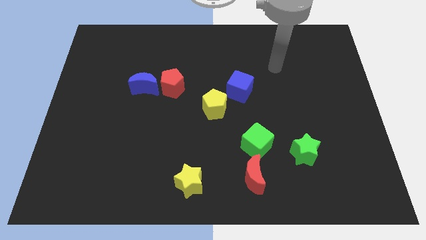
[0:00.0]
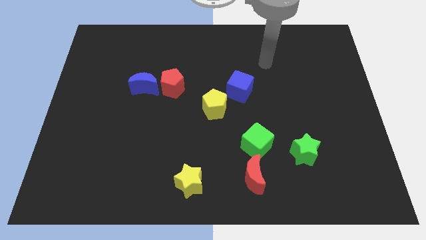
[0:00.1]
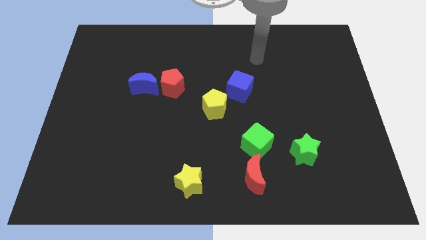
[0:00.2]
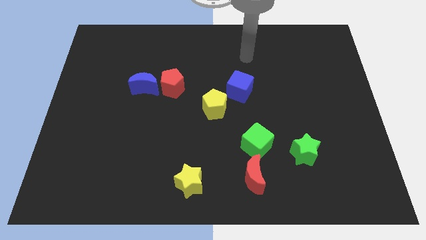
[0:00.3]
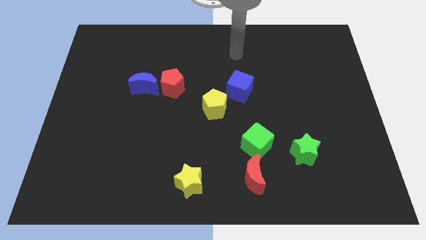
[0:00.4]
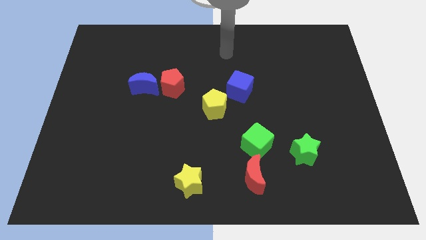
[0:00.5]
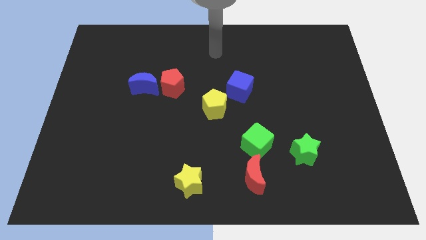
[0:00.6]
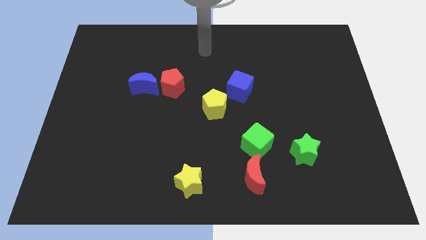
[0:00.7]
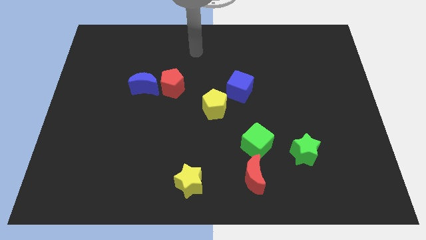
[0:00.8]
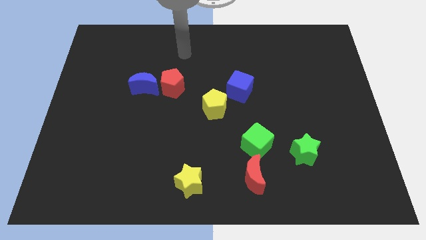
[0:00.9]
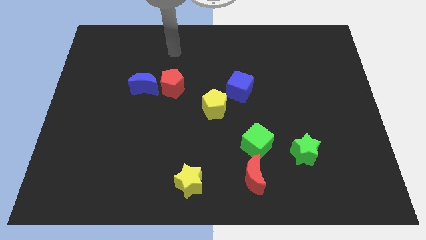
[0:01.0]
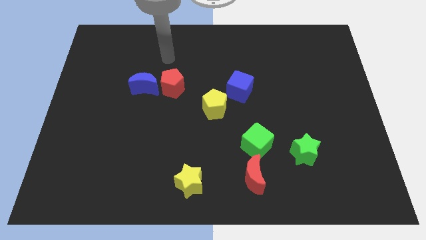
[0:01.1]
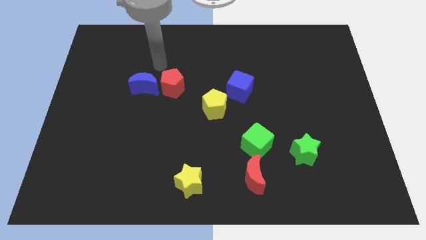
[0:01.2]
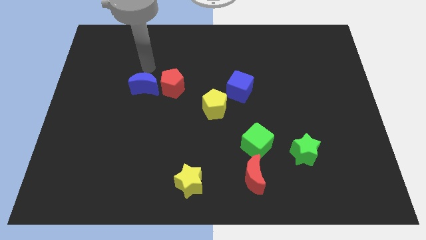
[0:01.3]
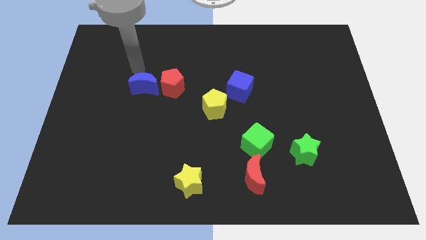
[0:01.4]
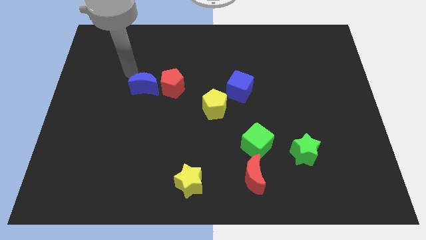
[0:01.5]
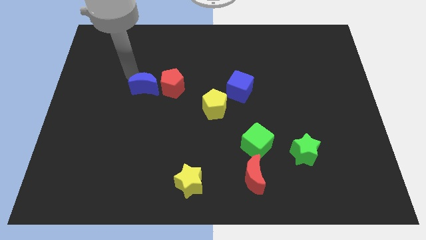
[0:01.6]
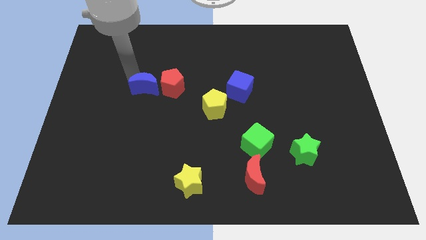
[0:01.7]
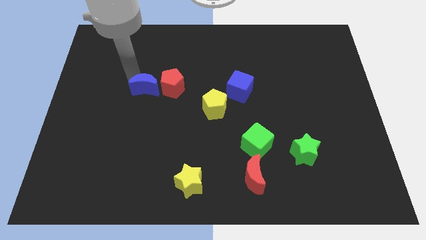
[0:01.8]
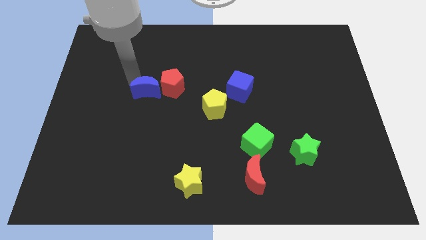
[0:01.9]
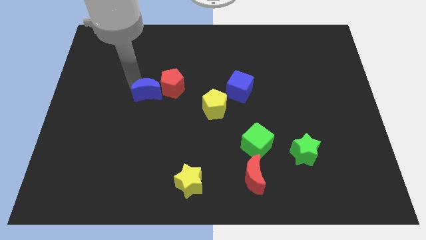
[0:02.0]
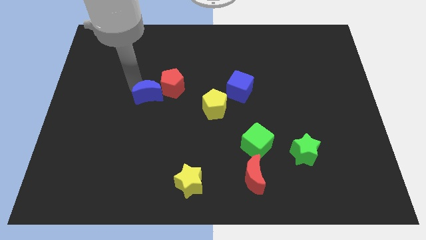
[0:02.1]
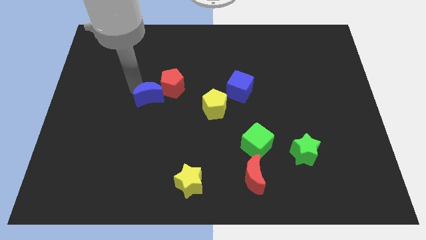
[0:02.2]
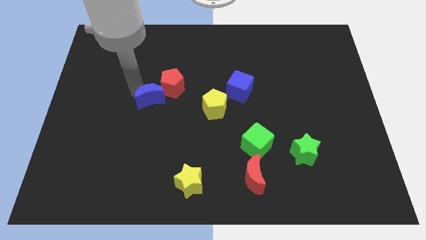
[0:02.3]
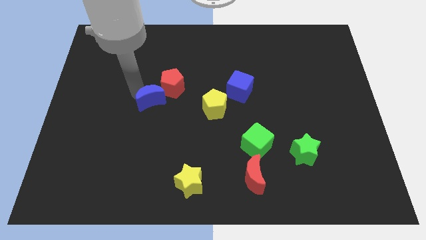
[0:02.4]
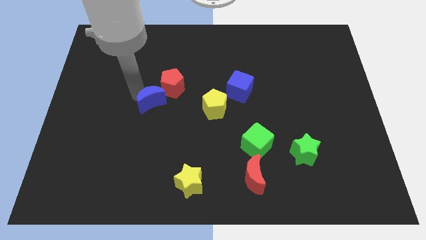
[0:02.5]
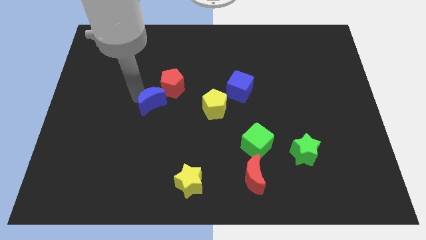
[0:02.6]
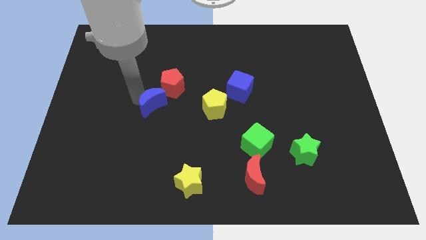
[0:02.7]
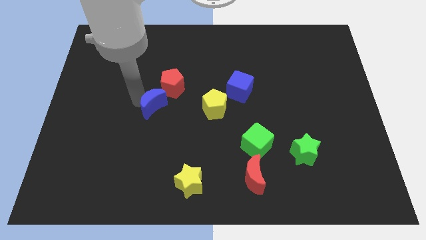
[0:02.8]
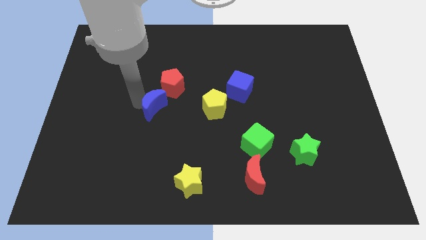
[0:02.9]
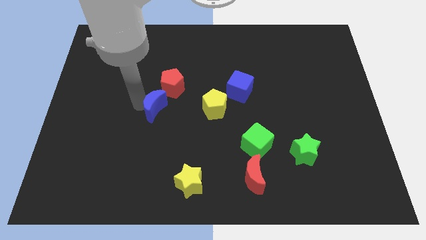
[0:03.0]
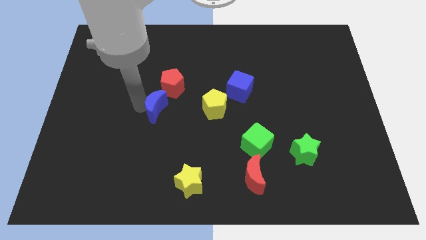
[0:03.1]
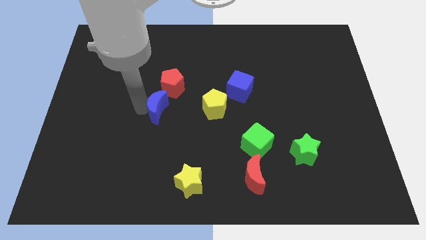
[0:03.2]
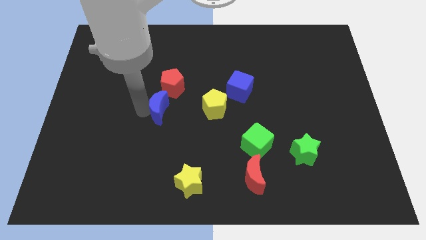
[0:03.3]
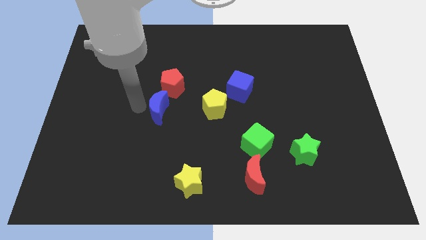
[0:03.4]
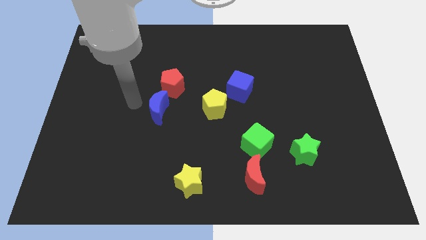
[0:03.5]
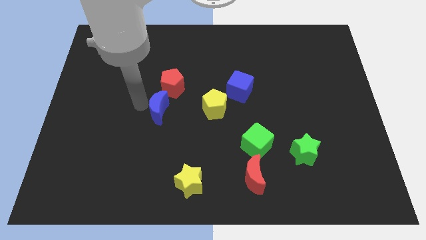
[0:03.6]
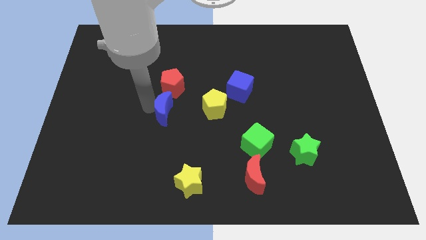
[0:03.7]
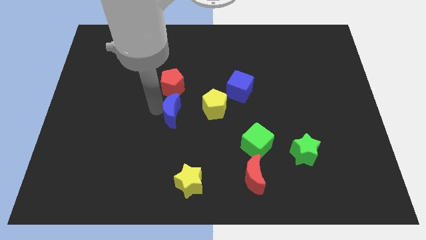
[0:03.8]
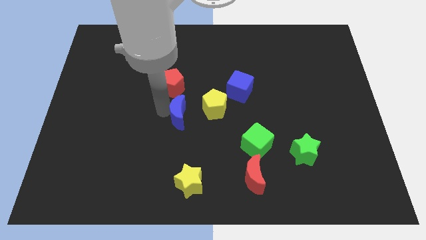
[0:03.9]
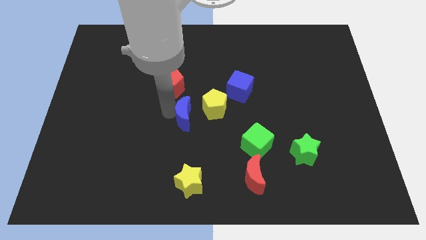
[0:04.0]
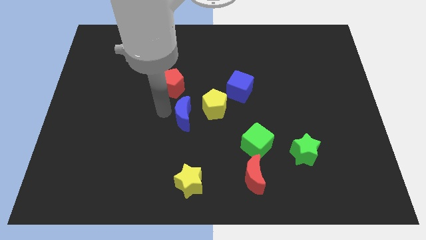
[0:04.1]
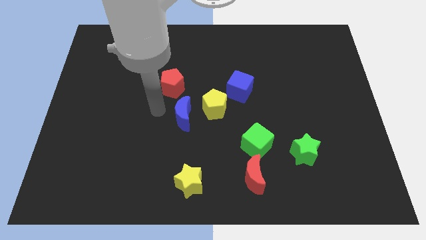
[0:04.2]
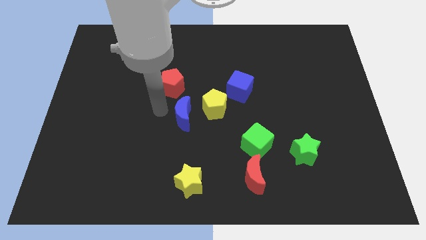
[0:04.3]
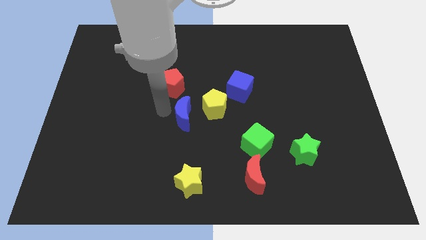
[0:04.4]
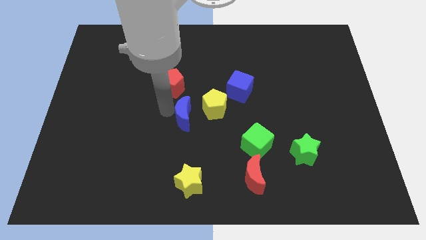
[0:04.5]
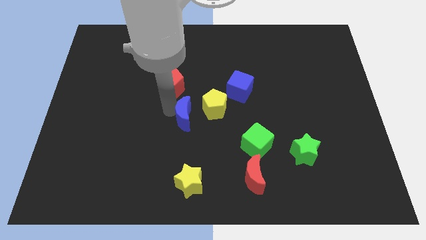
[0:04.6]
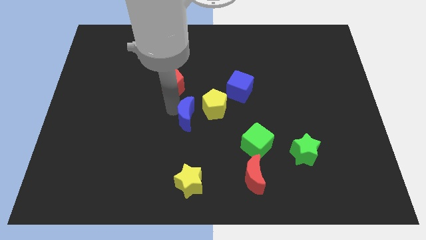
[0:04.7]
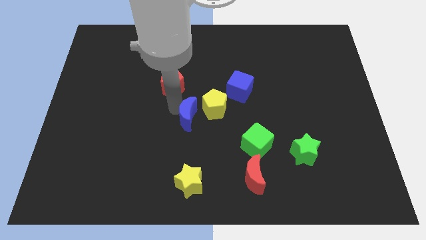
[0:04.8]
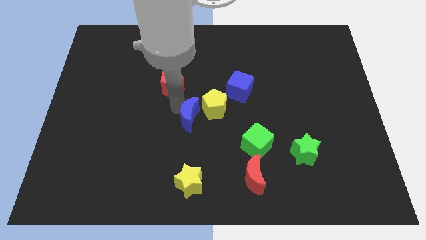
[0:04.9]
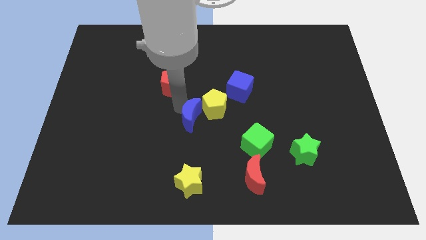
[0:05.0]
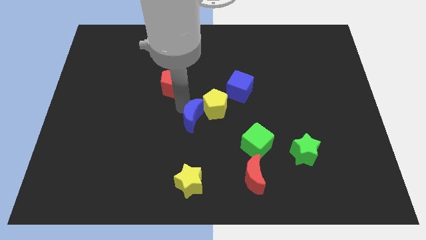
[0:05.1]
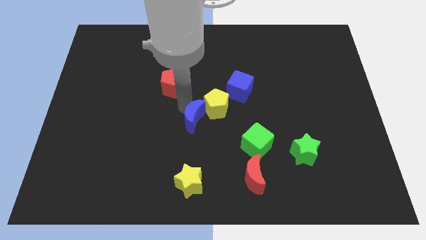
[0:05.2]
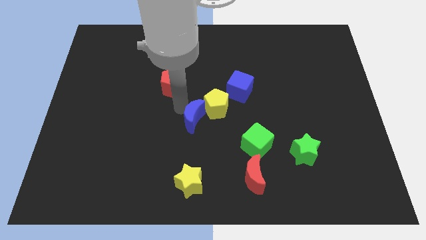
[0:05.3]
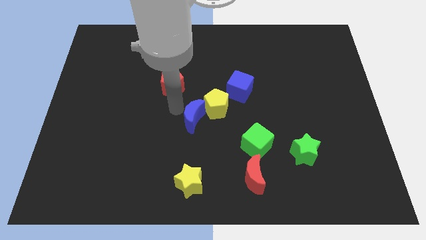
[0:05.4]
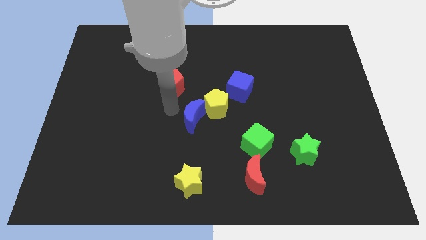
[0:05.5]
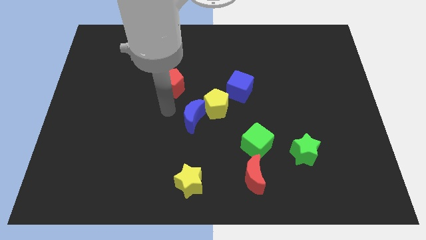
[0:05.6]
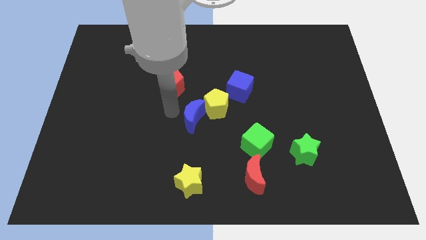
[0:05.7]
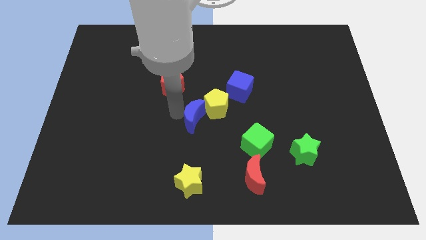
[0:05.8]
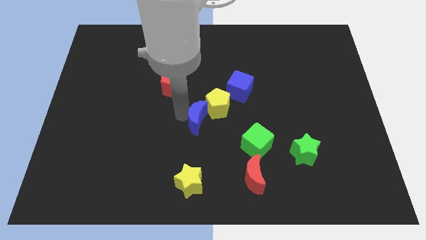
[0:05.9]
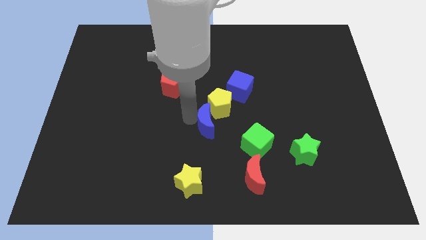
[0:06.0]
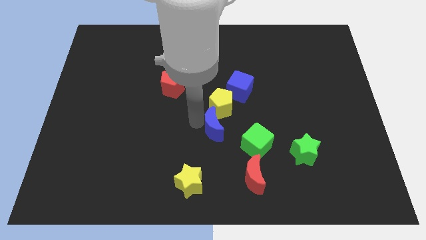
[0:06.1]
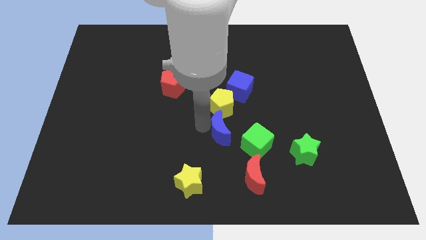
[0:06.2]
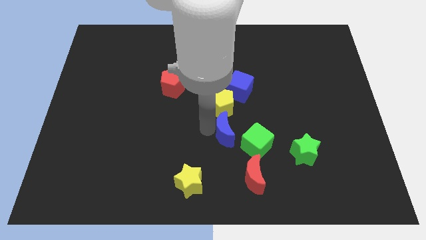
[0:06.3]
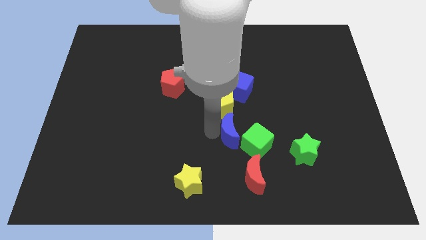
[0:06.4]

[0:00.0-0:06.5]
put the blue moon above the red moon
